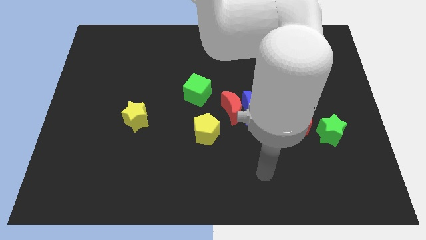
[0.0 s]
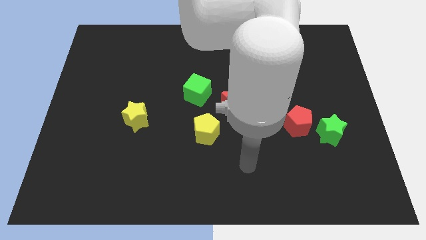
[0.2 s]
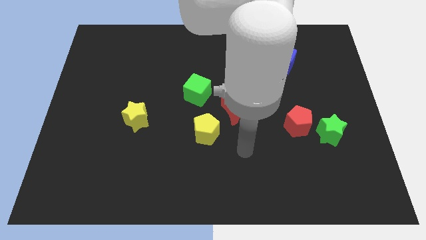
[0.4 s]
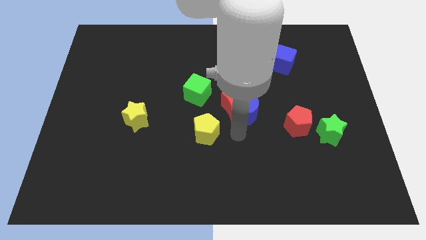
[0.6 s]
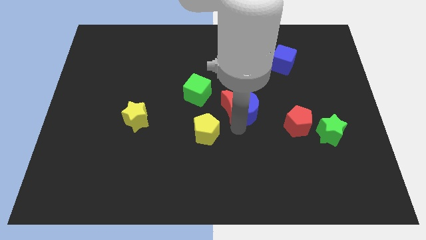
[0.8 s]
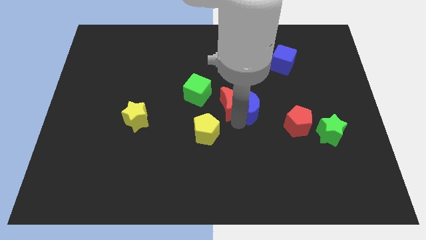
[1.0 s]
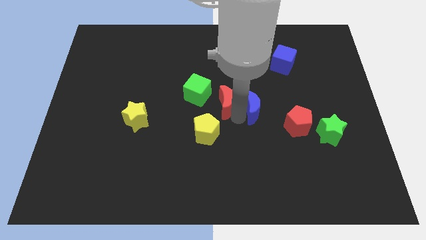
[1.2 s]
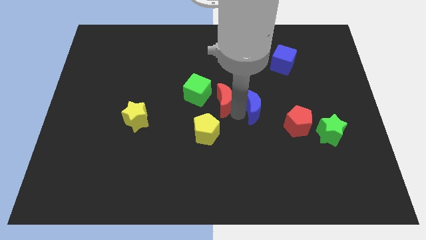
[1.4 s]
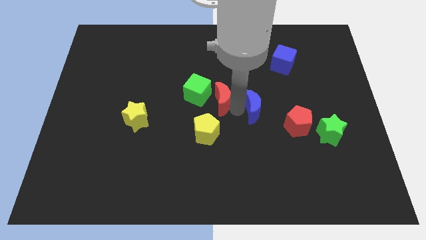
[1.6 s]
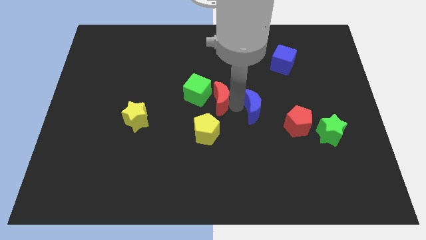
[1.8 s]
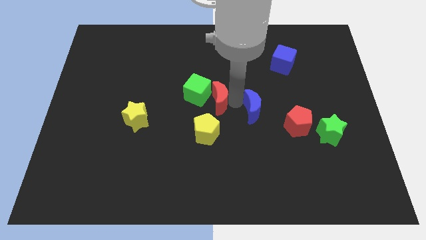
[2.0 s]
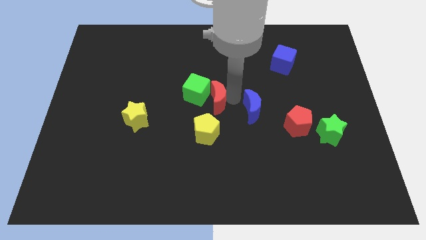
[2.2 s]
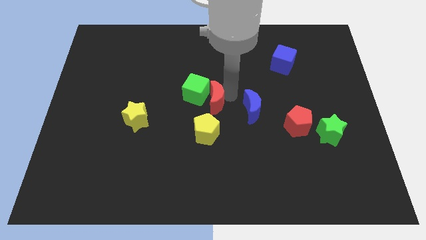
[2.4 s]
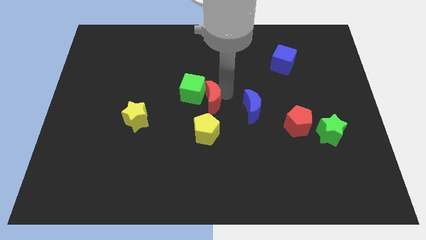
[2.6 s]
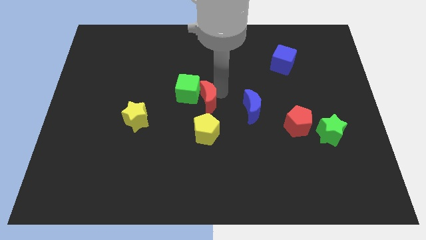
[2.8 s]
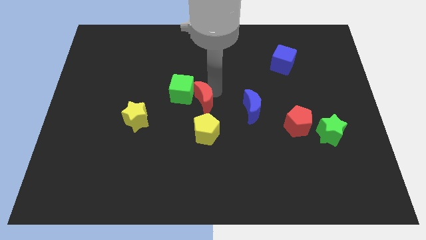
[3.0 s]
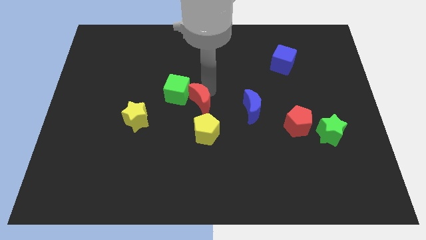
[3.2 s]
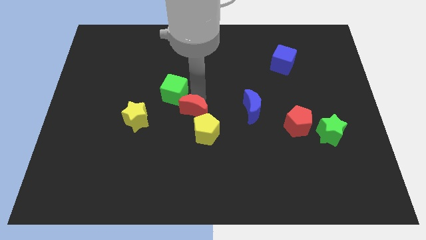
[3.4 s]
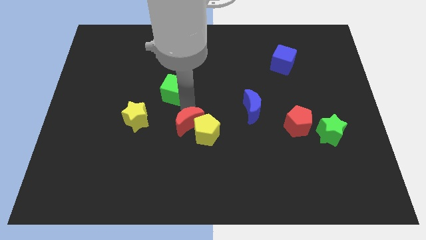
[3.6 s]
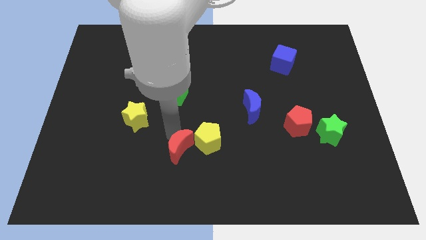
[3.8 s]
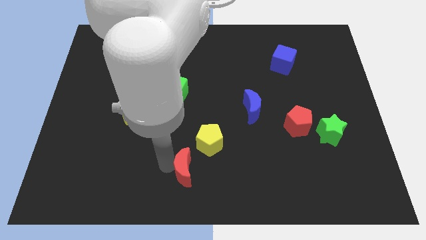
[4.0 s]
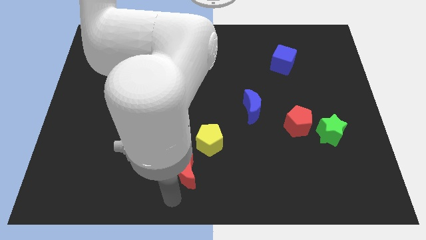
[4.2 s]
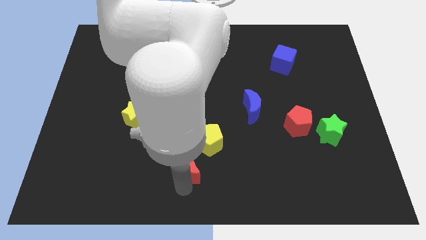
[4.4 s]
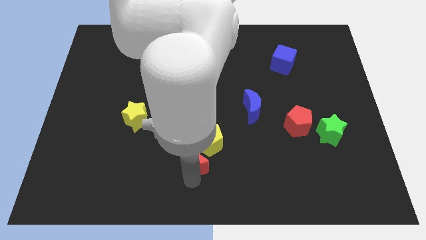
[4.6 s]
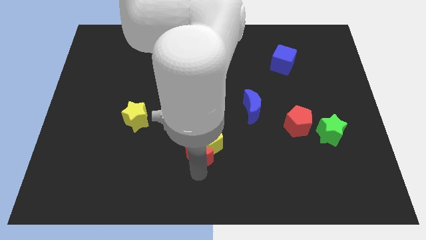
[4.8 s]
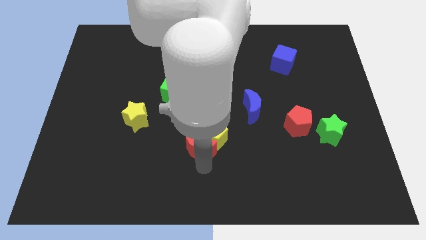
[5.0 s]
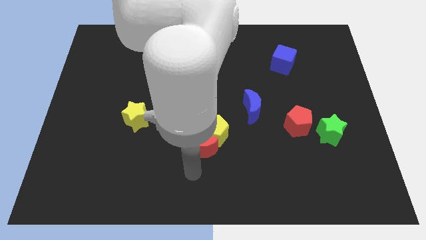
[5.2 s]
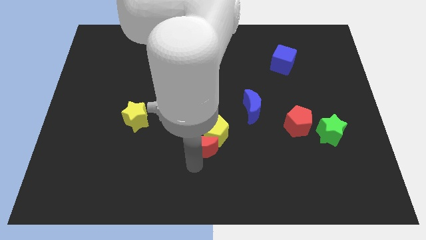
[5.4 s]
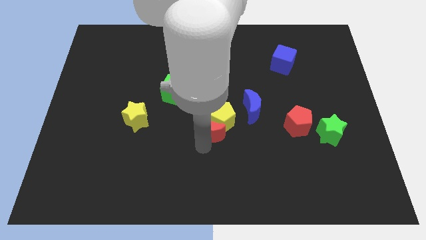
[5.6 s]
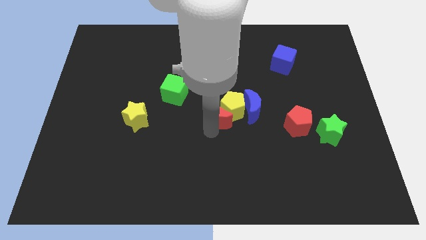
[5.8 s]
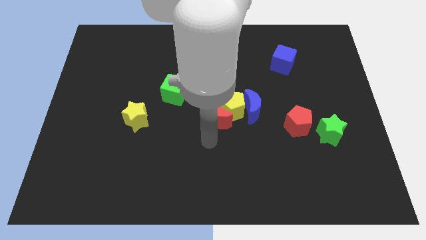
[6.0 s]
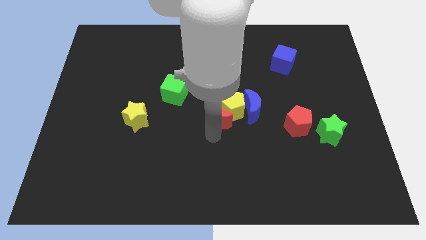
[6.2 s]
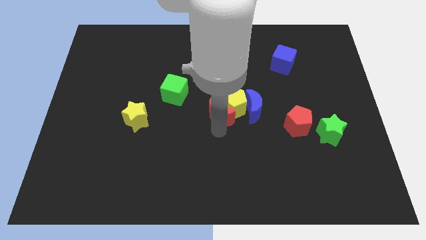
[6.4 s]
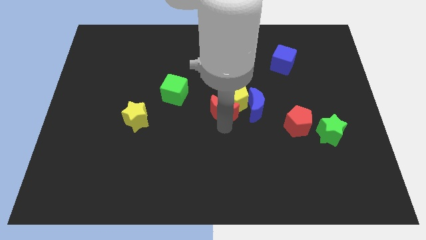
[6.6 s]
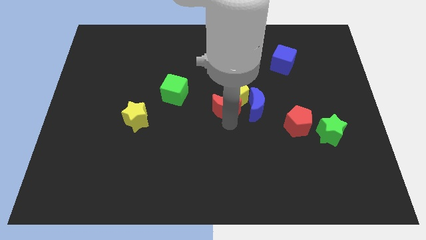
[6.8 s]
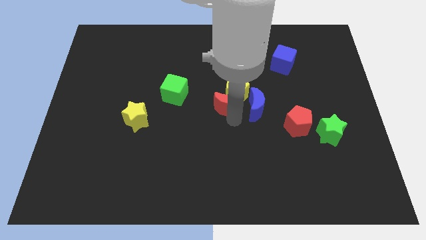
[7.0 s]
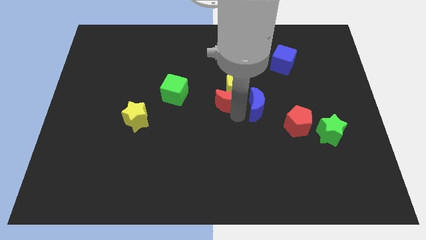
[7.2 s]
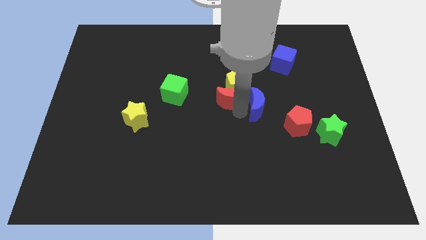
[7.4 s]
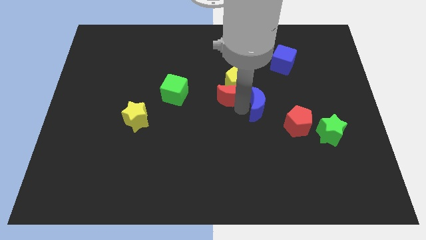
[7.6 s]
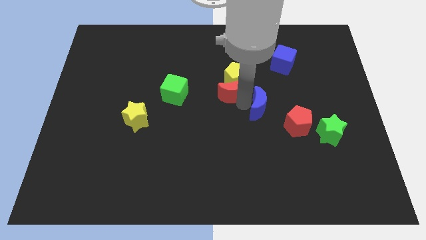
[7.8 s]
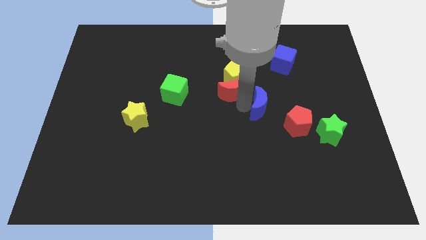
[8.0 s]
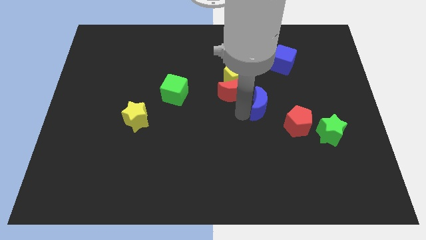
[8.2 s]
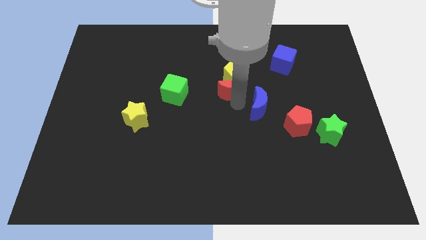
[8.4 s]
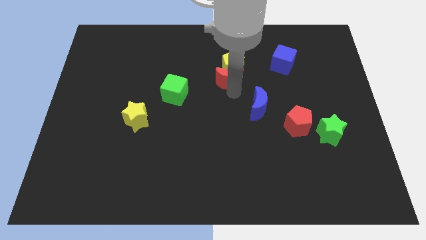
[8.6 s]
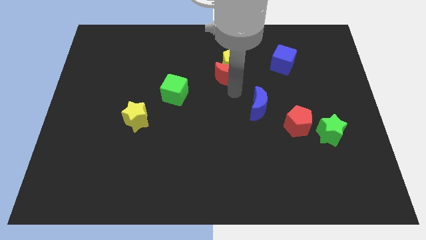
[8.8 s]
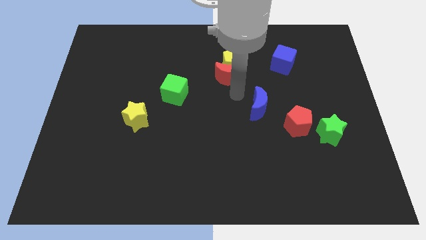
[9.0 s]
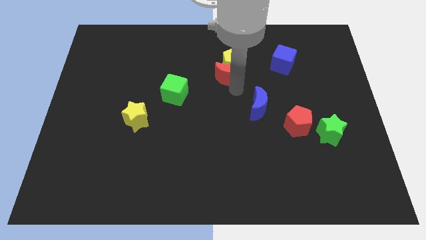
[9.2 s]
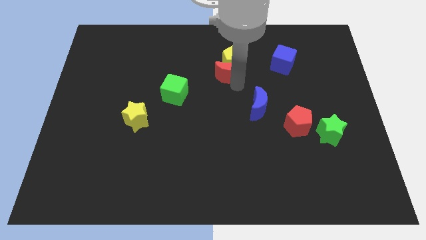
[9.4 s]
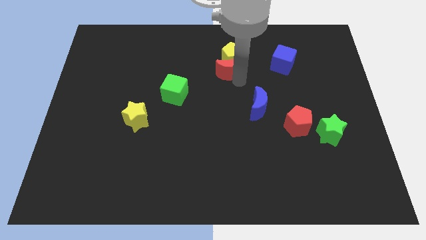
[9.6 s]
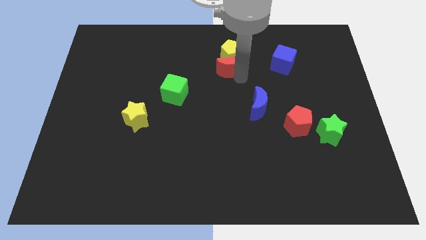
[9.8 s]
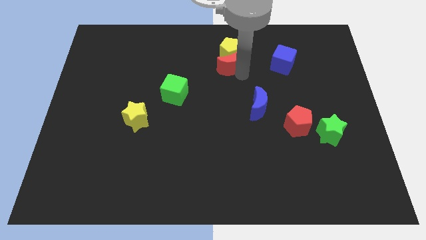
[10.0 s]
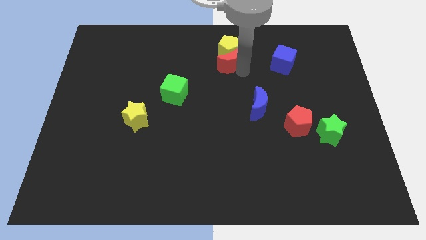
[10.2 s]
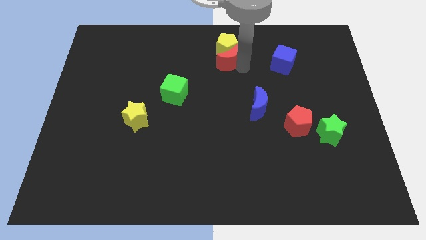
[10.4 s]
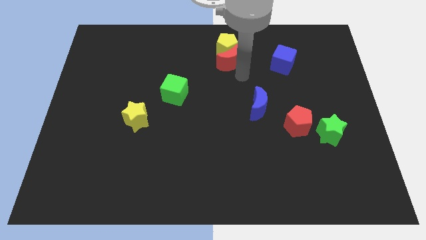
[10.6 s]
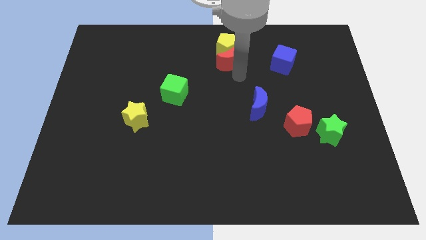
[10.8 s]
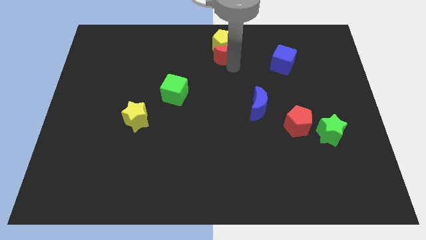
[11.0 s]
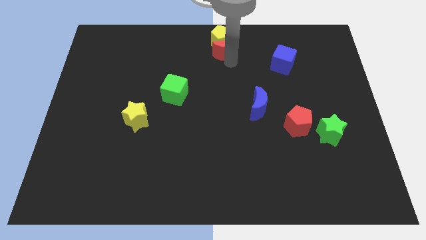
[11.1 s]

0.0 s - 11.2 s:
slide the red moon to the top

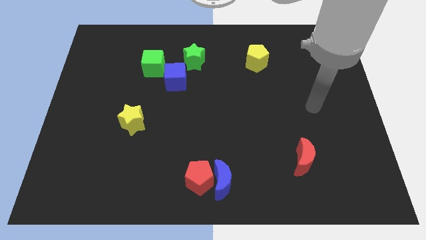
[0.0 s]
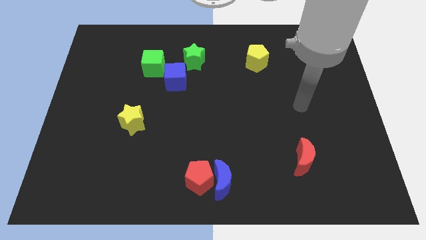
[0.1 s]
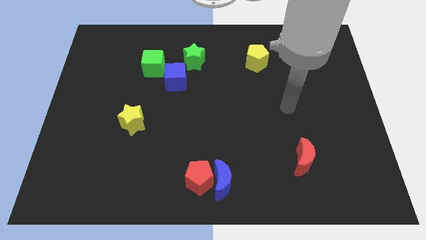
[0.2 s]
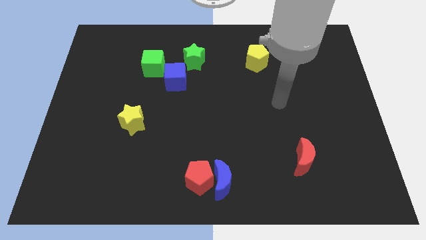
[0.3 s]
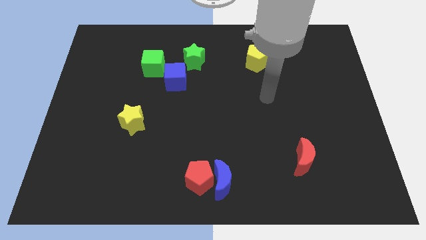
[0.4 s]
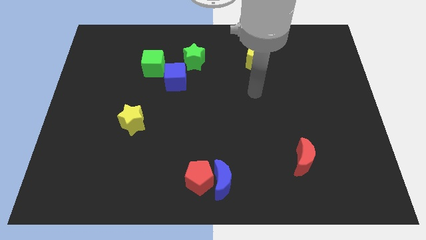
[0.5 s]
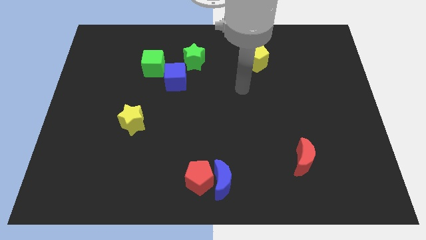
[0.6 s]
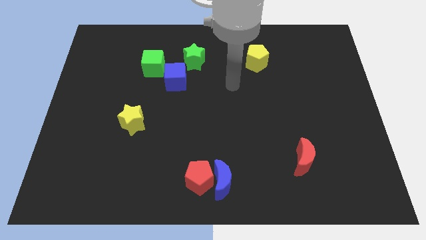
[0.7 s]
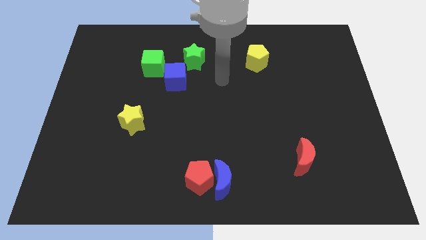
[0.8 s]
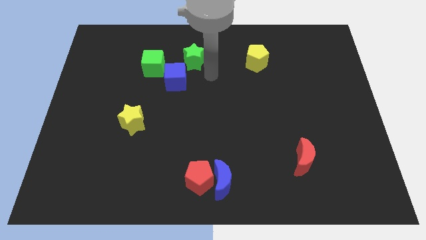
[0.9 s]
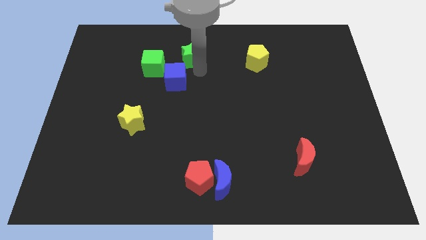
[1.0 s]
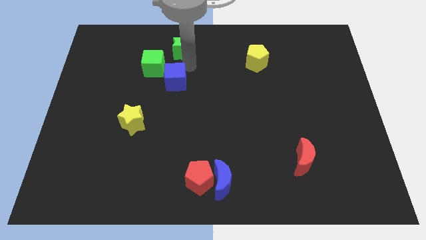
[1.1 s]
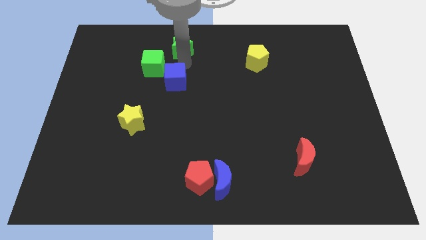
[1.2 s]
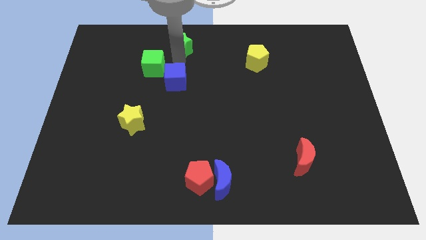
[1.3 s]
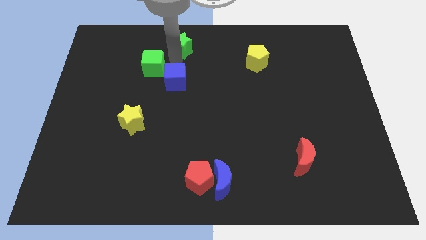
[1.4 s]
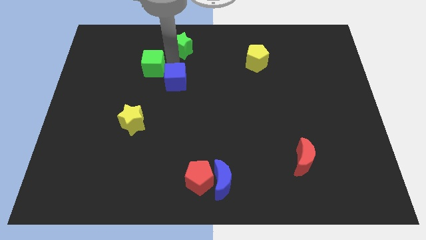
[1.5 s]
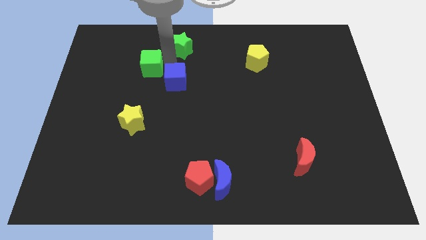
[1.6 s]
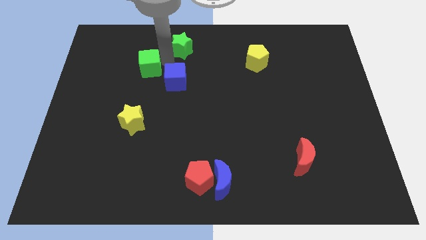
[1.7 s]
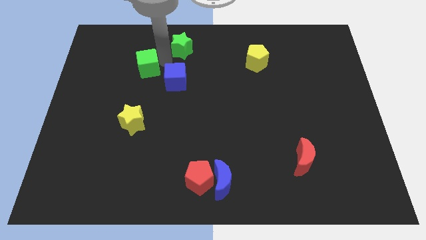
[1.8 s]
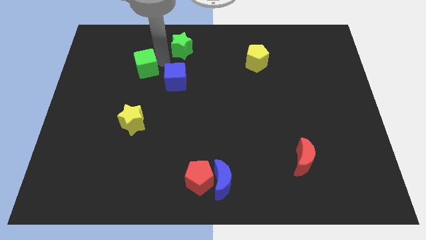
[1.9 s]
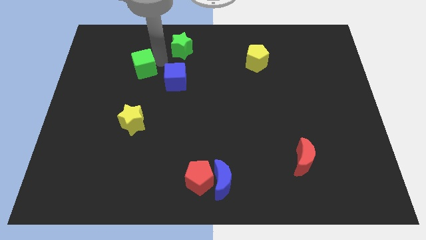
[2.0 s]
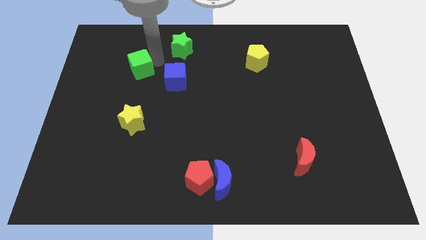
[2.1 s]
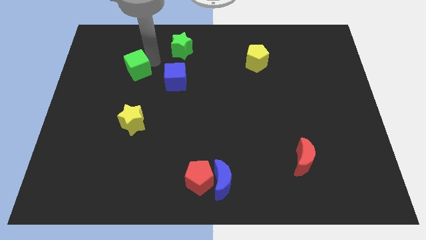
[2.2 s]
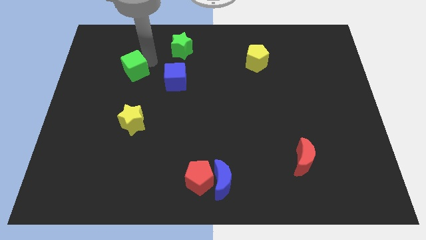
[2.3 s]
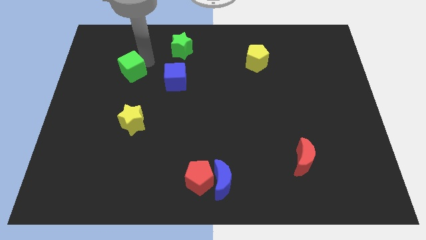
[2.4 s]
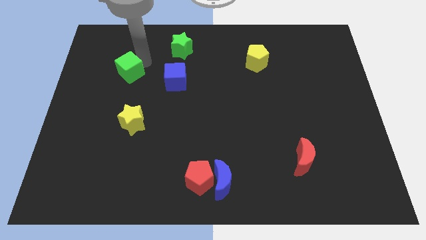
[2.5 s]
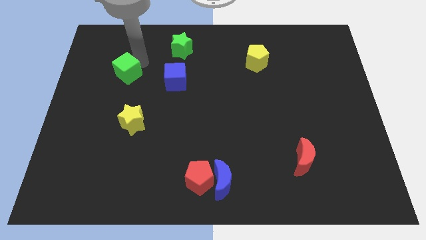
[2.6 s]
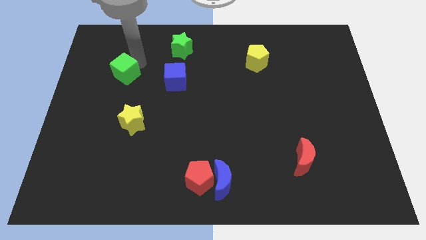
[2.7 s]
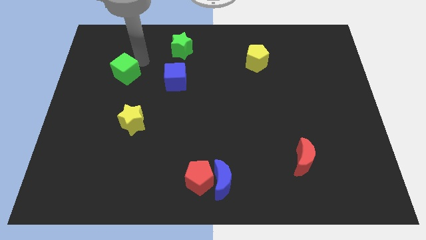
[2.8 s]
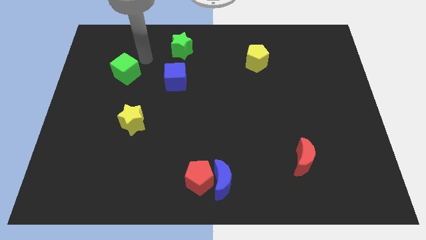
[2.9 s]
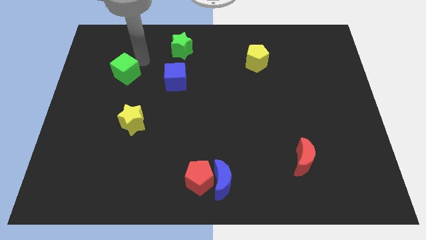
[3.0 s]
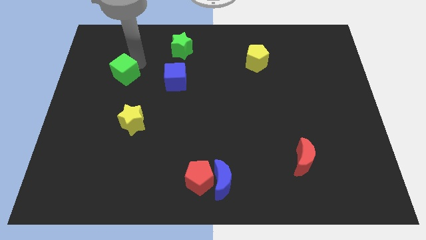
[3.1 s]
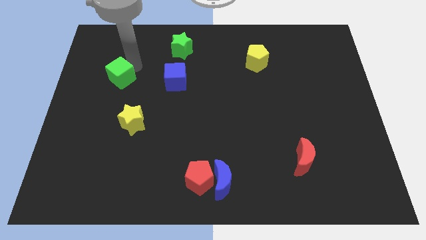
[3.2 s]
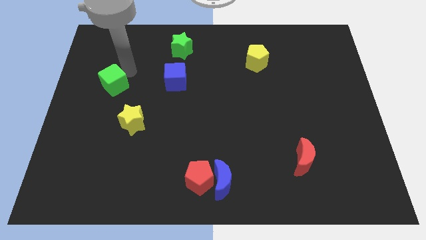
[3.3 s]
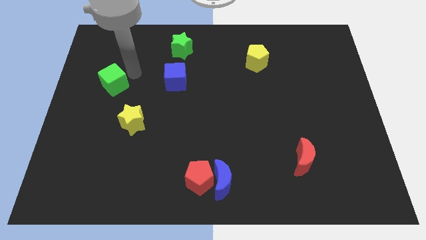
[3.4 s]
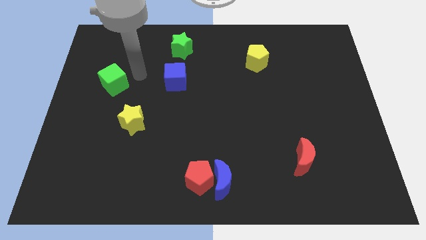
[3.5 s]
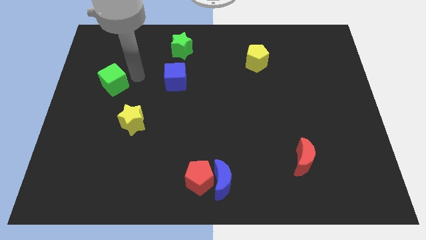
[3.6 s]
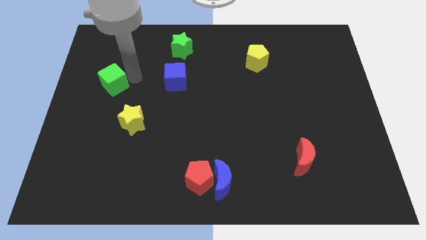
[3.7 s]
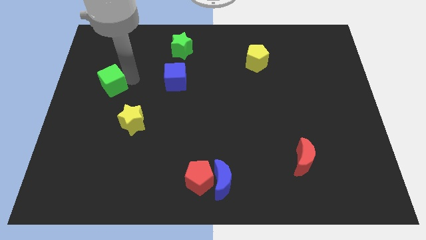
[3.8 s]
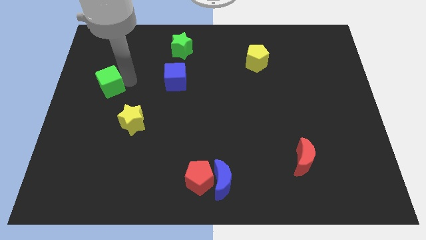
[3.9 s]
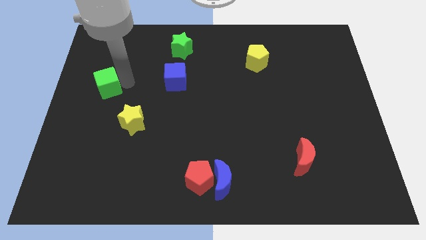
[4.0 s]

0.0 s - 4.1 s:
push the green cube to the left side of the board
